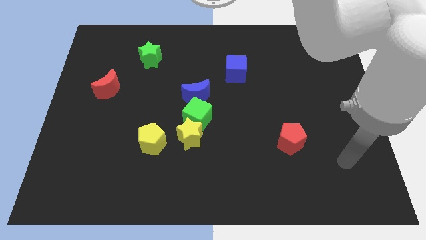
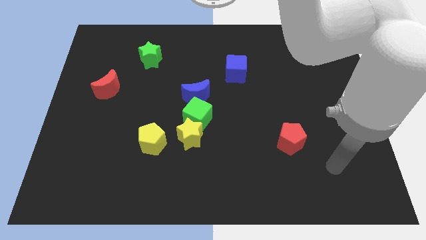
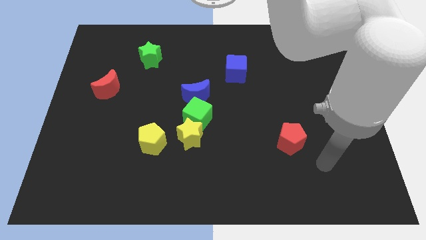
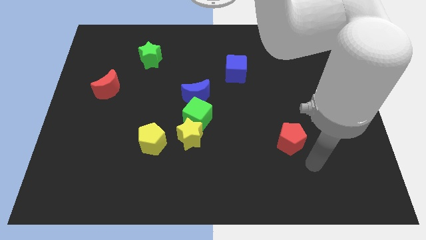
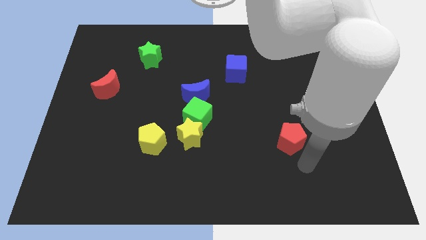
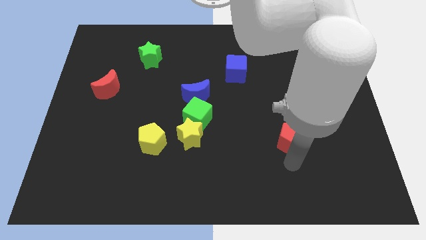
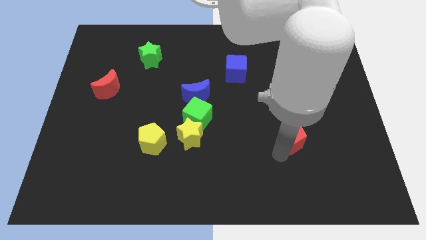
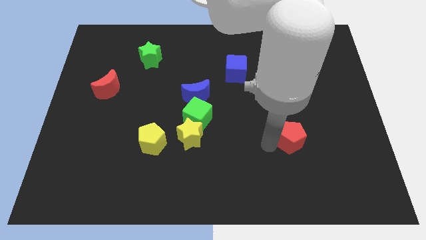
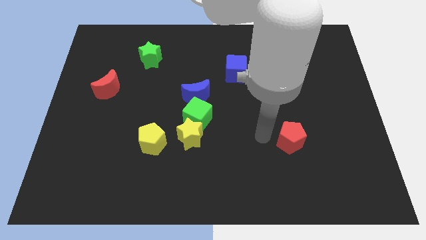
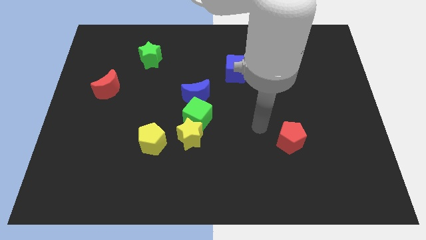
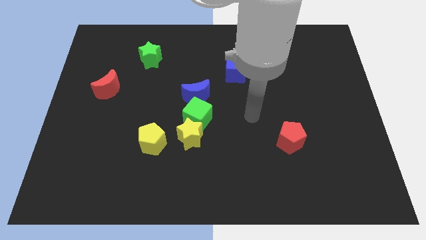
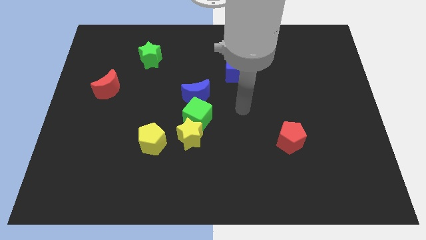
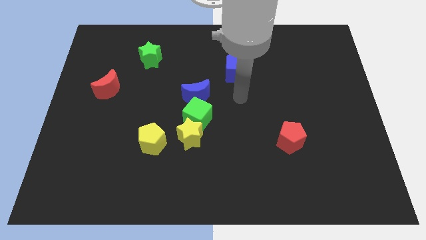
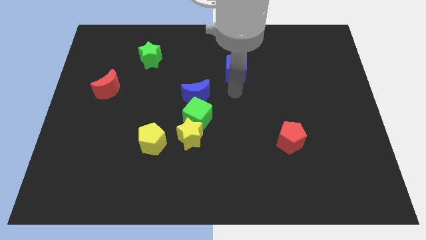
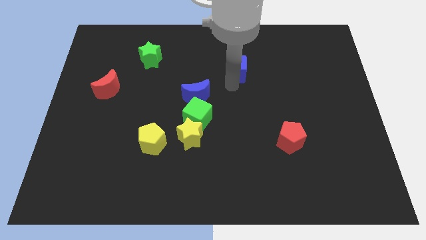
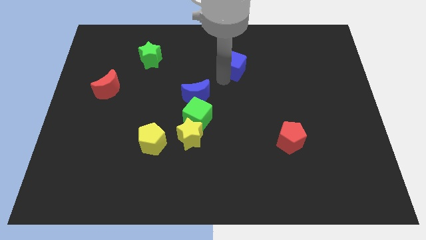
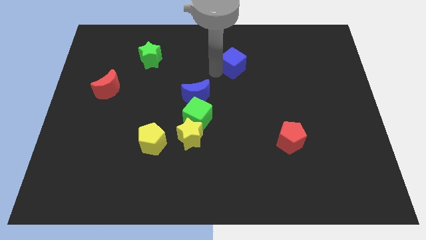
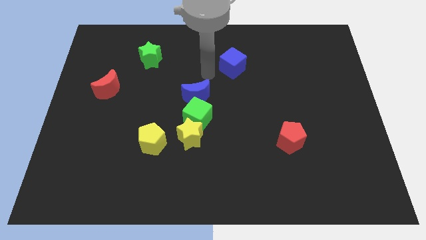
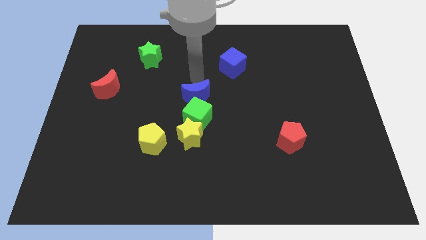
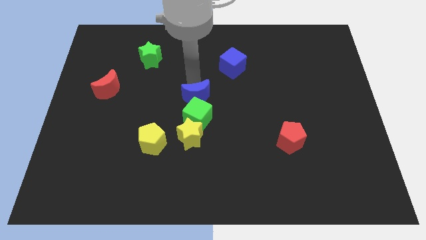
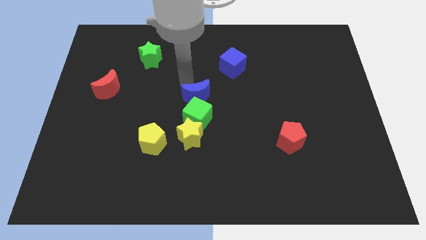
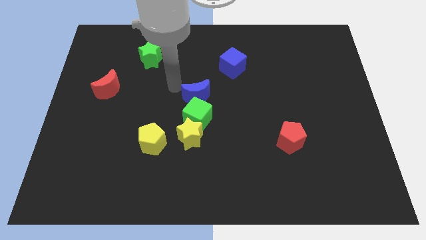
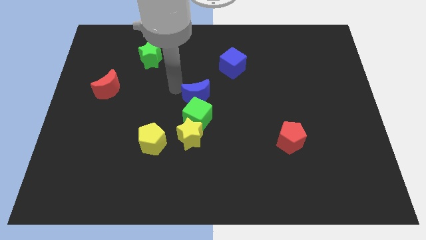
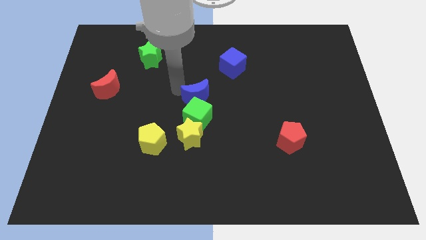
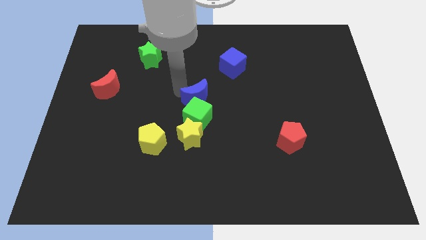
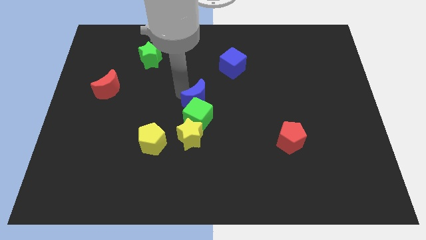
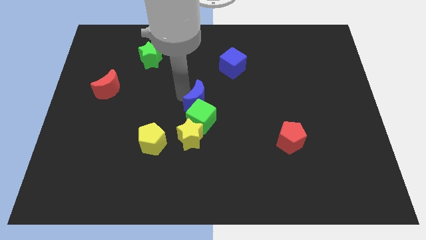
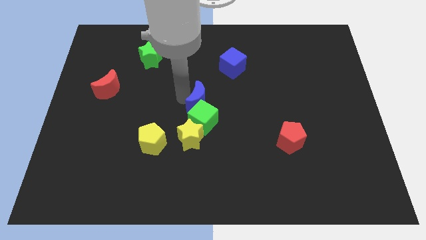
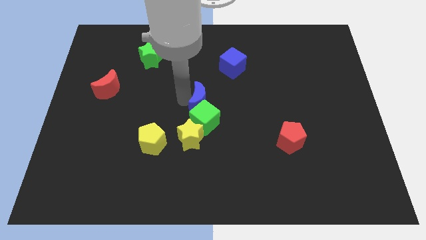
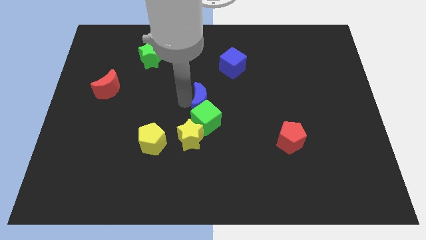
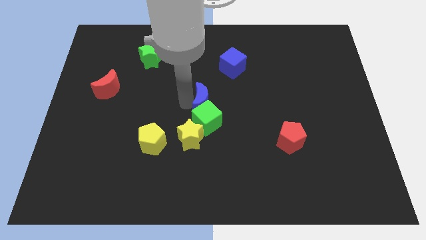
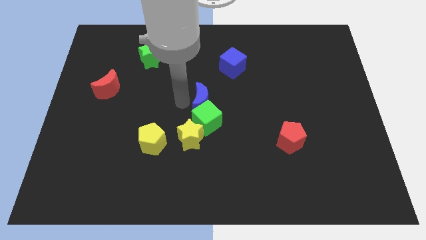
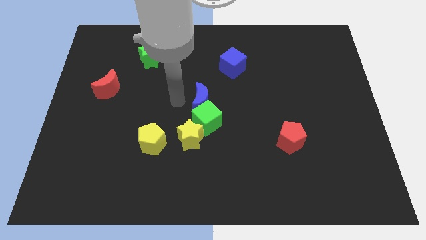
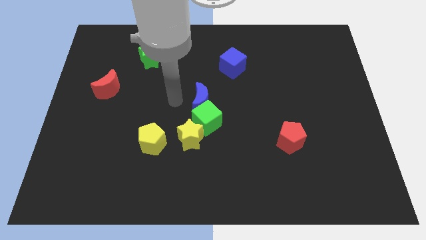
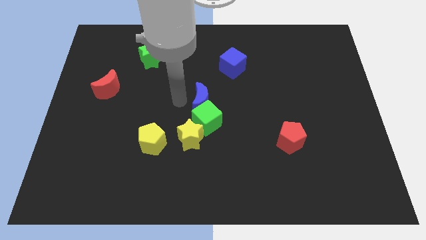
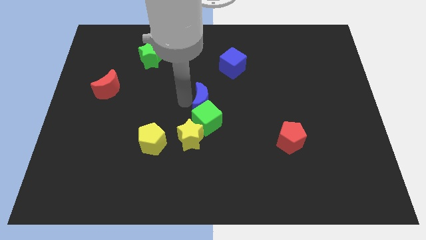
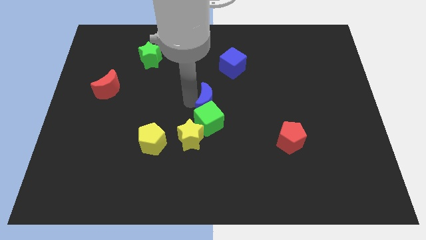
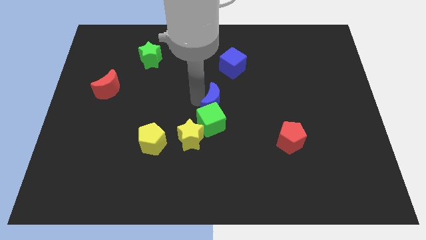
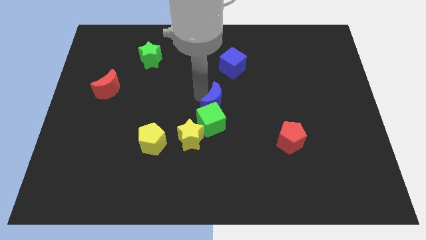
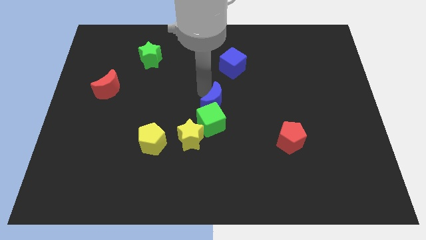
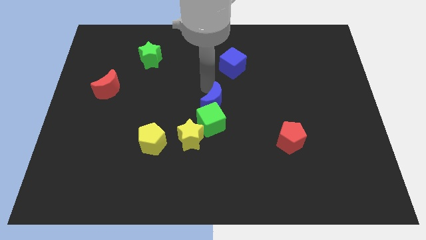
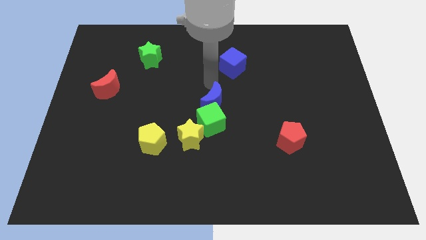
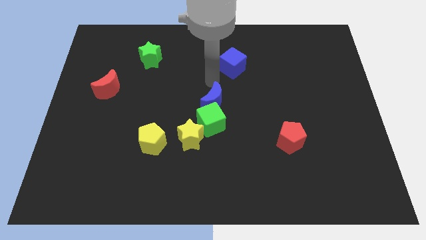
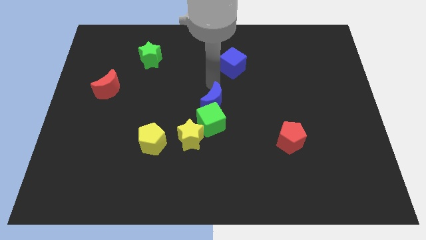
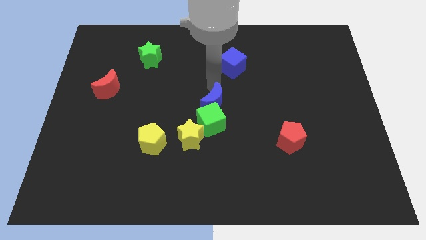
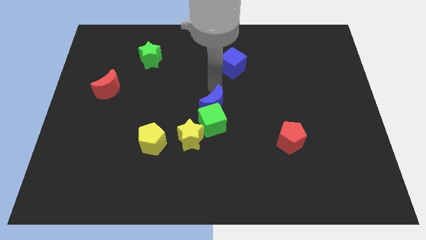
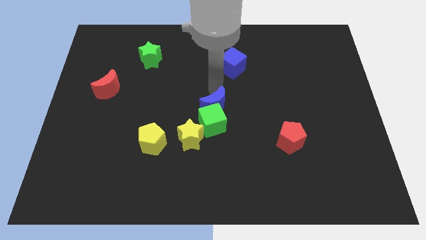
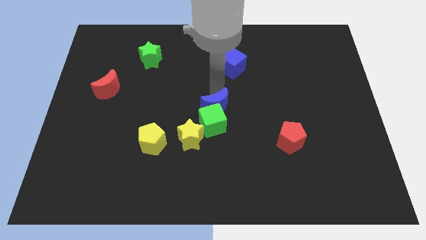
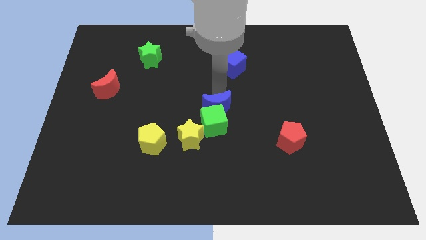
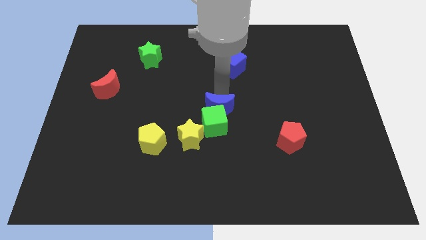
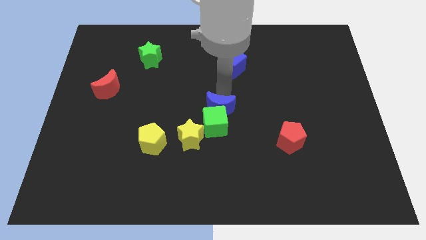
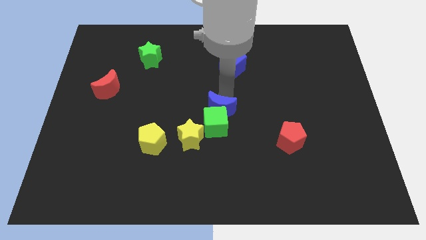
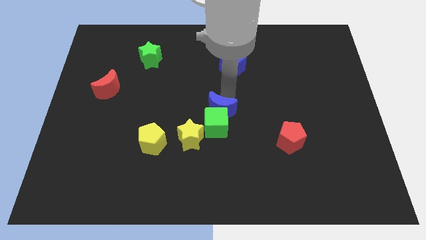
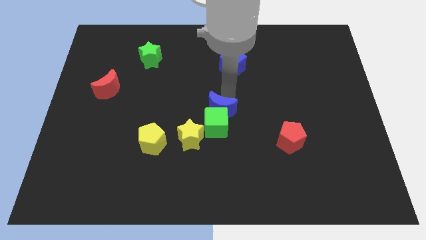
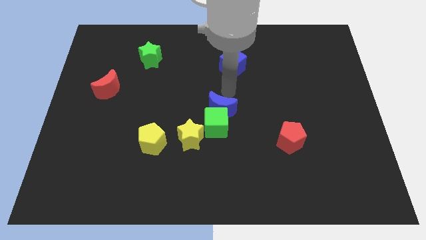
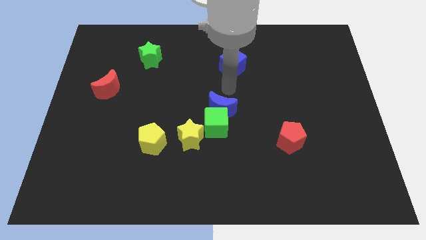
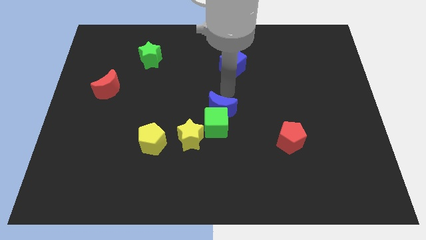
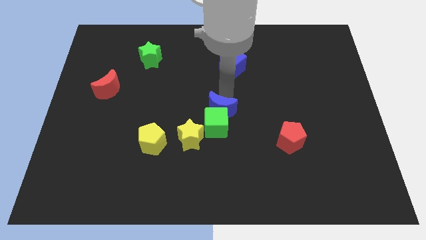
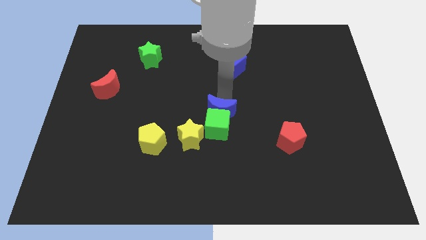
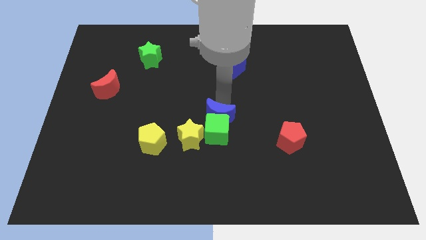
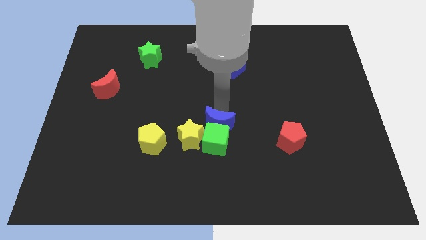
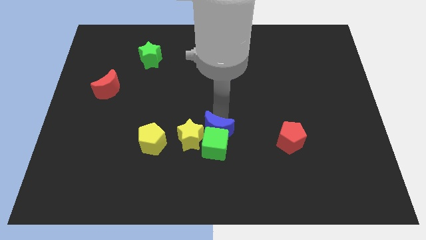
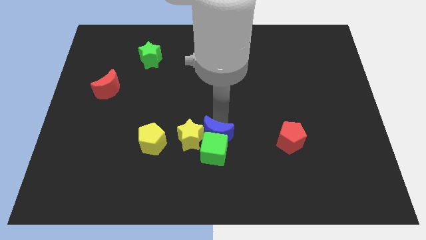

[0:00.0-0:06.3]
slide the blue moon to the bottom right side of the yellow star
